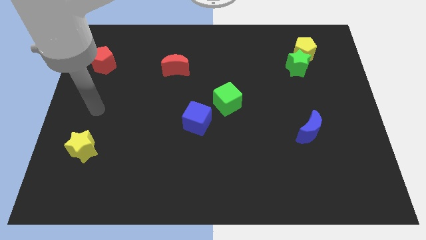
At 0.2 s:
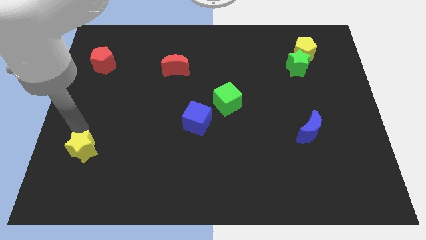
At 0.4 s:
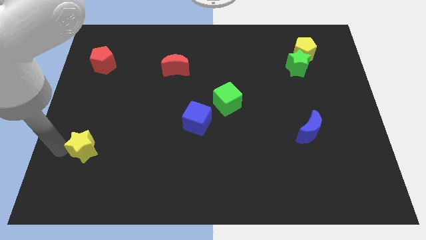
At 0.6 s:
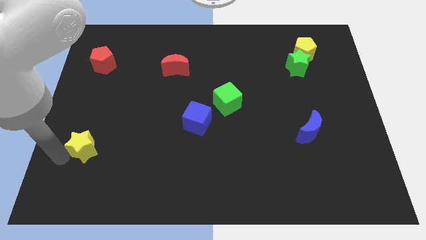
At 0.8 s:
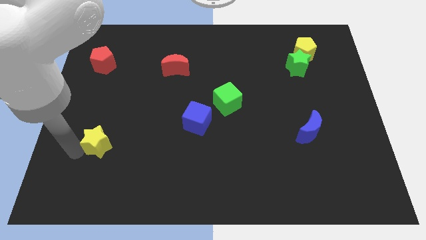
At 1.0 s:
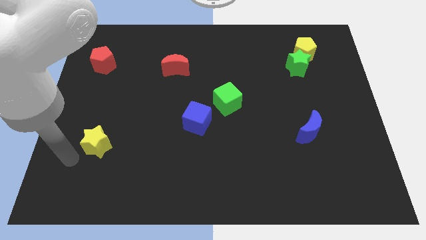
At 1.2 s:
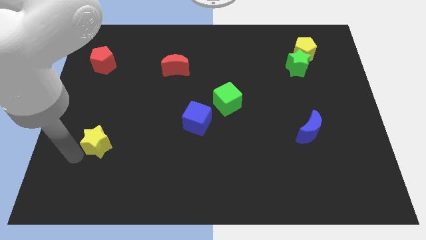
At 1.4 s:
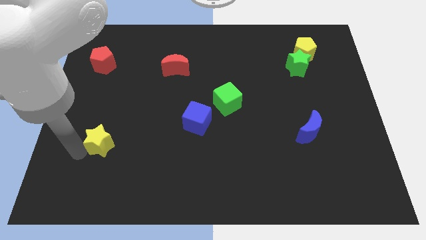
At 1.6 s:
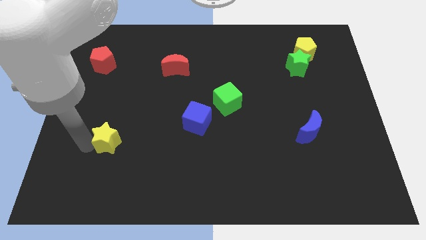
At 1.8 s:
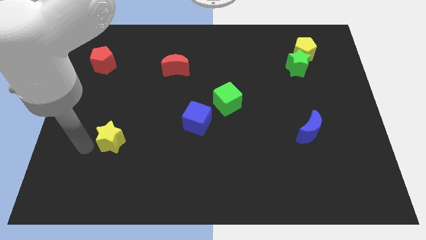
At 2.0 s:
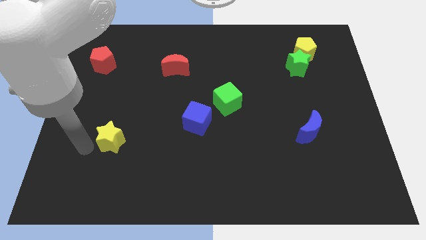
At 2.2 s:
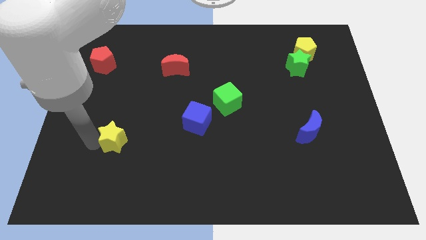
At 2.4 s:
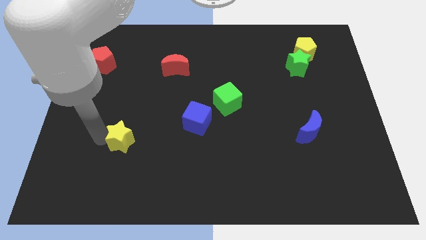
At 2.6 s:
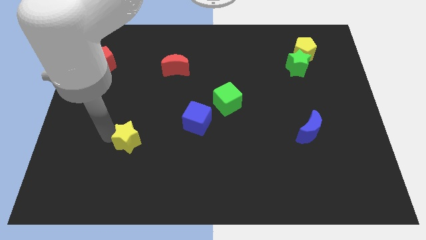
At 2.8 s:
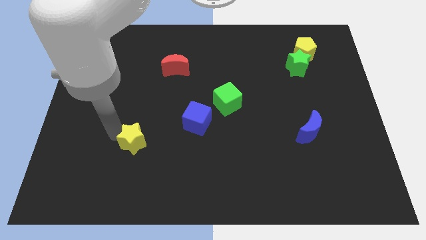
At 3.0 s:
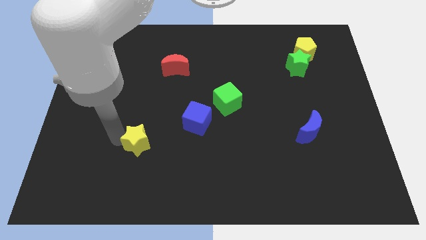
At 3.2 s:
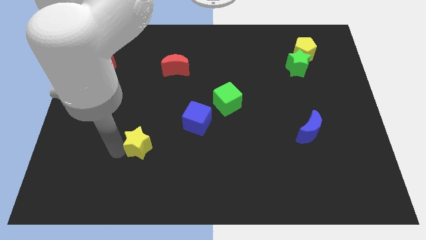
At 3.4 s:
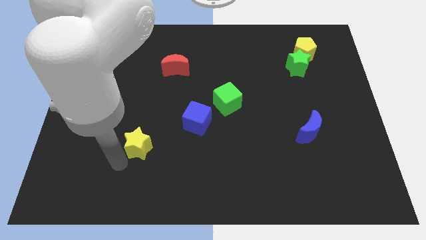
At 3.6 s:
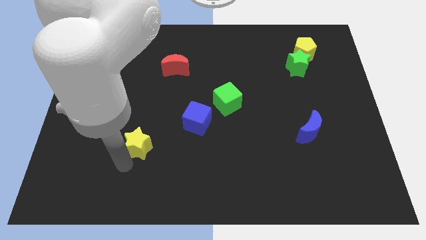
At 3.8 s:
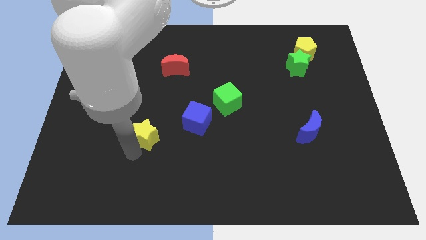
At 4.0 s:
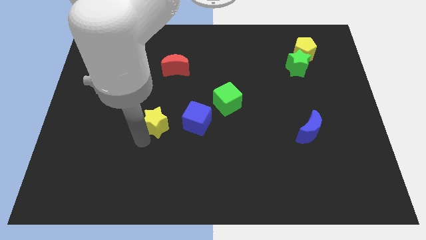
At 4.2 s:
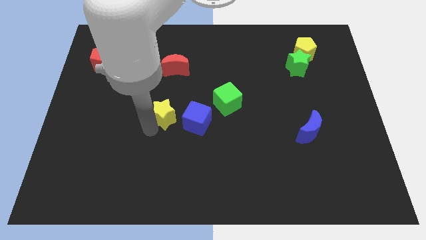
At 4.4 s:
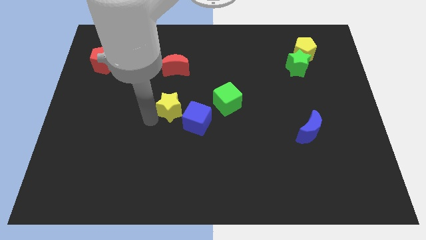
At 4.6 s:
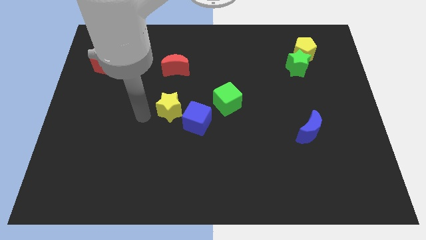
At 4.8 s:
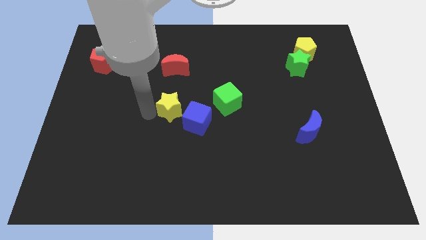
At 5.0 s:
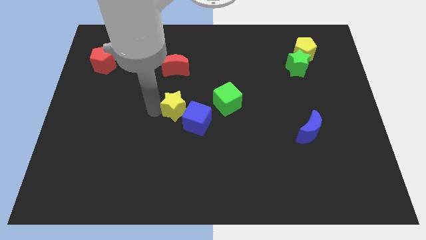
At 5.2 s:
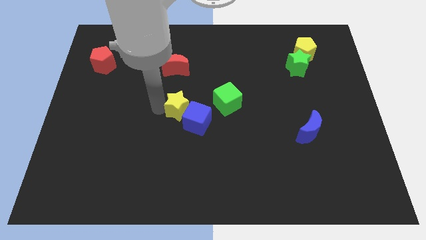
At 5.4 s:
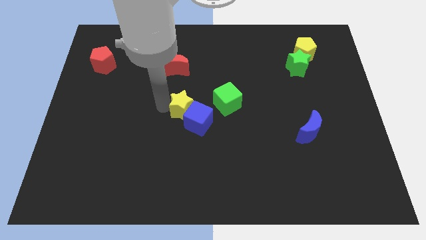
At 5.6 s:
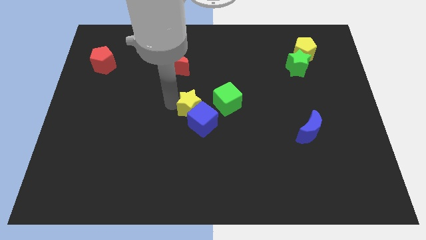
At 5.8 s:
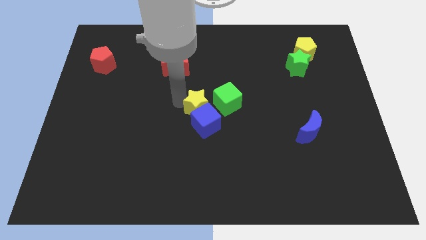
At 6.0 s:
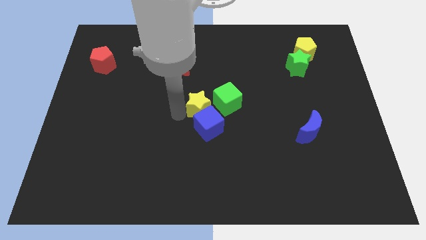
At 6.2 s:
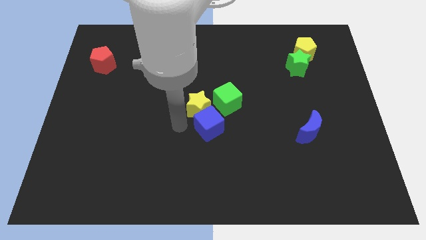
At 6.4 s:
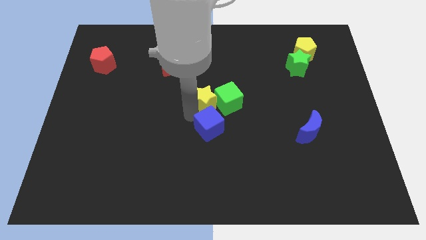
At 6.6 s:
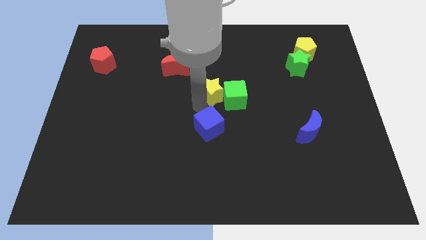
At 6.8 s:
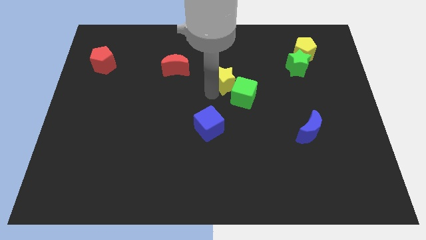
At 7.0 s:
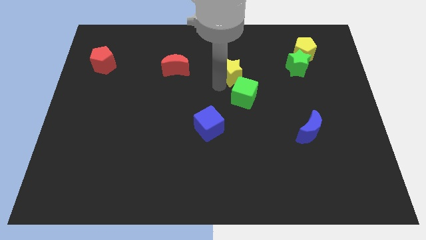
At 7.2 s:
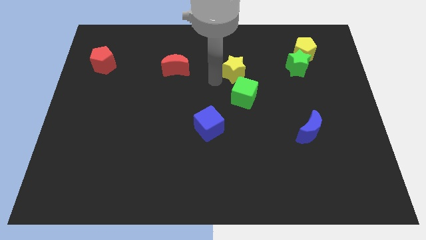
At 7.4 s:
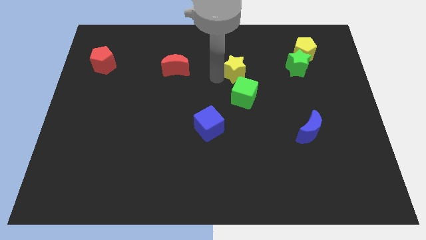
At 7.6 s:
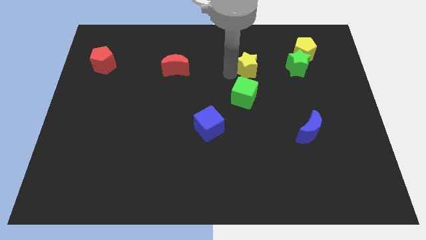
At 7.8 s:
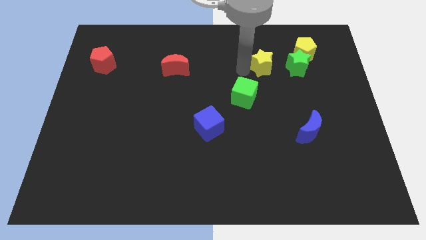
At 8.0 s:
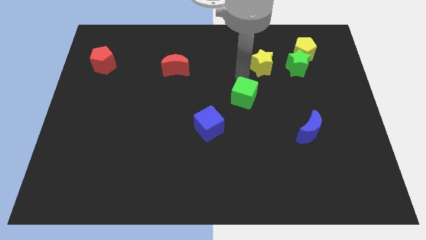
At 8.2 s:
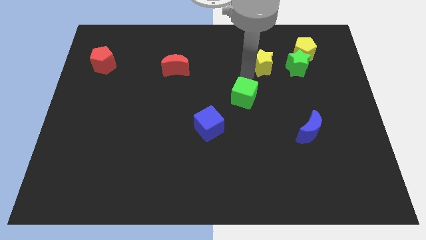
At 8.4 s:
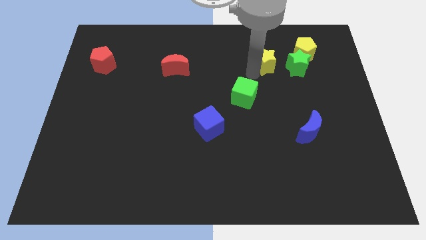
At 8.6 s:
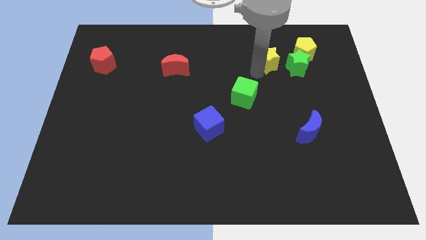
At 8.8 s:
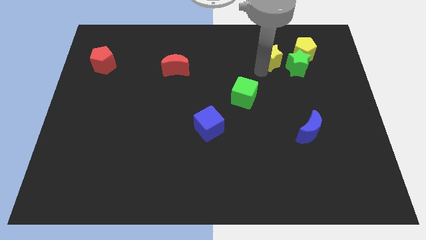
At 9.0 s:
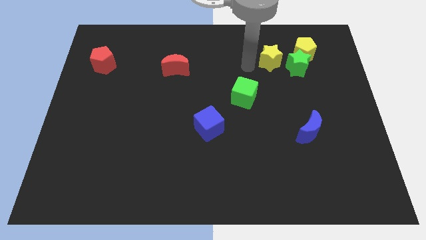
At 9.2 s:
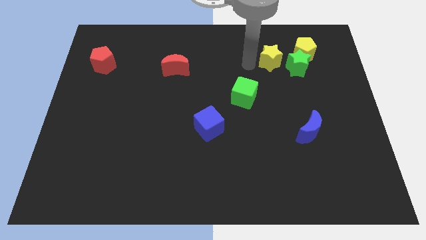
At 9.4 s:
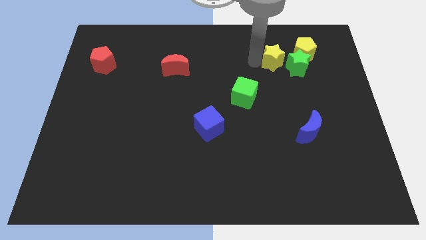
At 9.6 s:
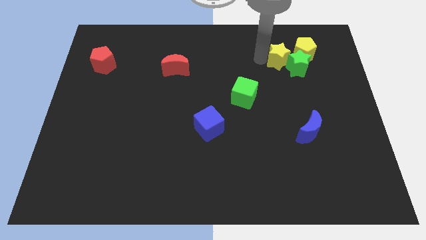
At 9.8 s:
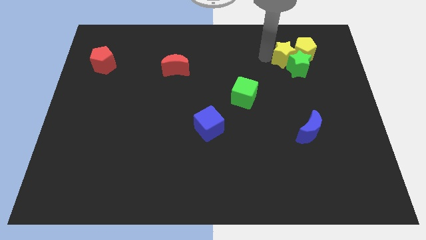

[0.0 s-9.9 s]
move the yellow star towards the yellow pentagon

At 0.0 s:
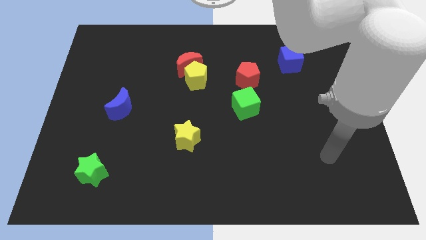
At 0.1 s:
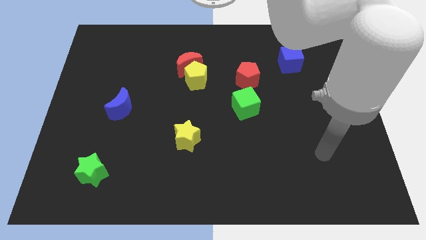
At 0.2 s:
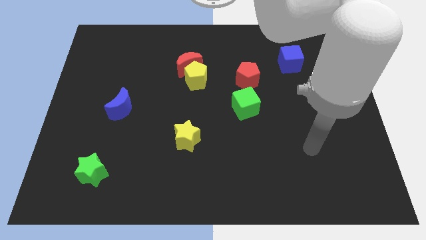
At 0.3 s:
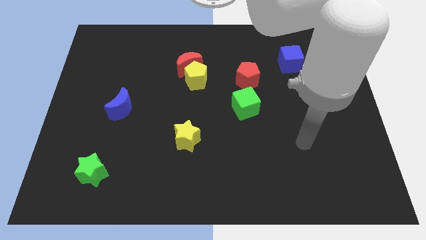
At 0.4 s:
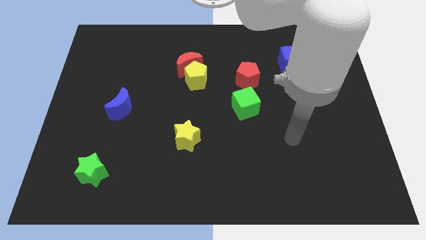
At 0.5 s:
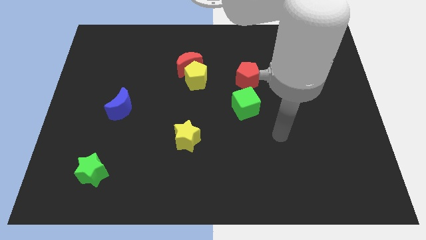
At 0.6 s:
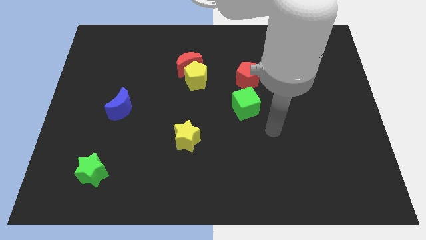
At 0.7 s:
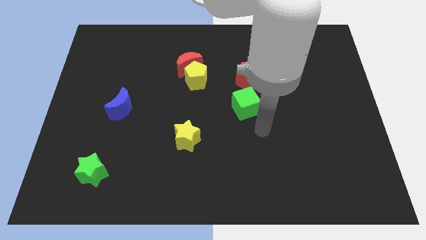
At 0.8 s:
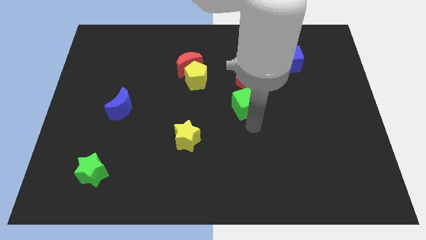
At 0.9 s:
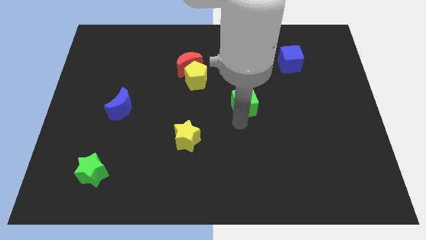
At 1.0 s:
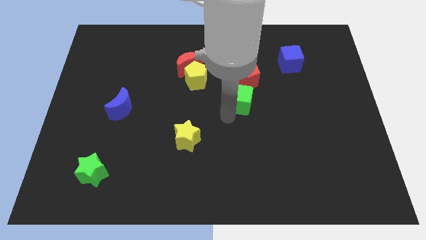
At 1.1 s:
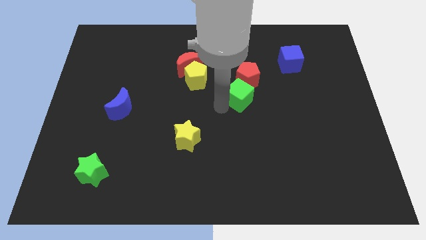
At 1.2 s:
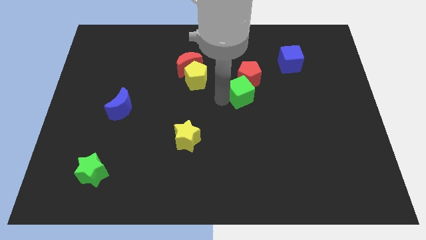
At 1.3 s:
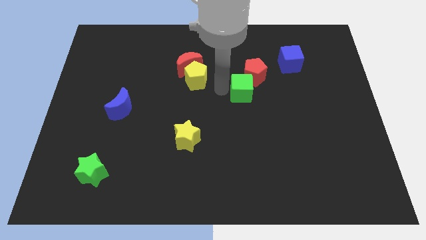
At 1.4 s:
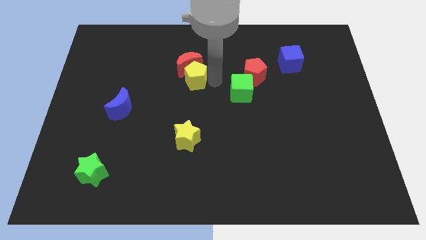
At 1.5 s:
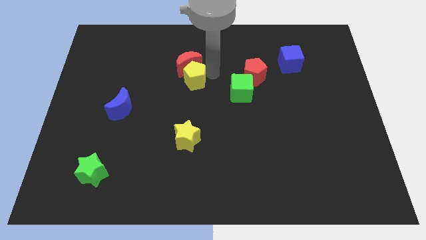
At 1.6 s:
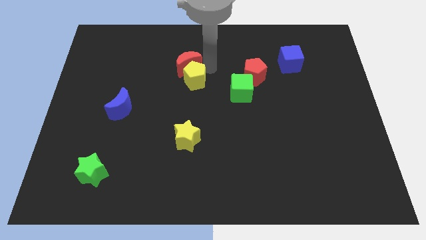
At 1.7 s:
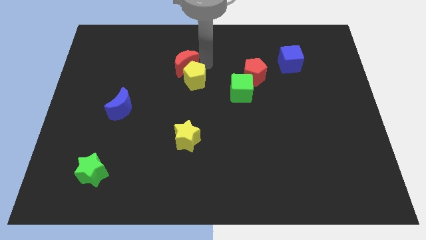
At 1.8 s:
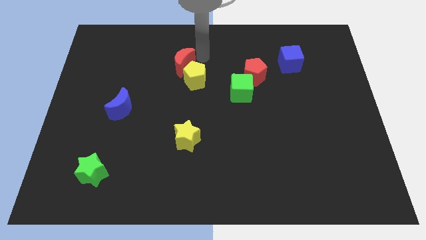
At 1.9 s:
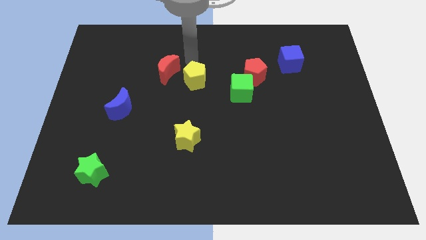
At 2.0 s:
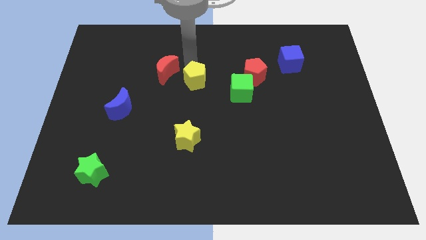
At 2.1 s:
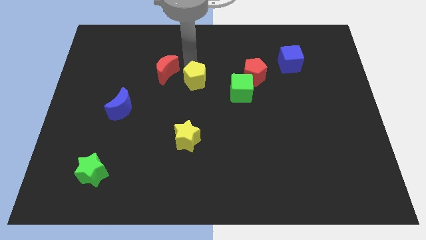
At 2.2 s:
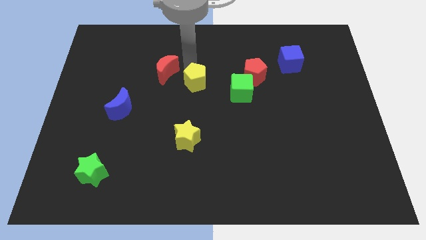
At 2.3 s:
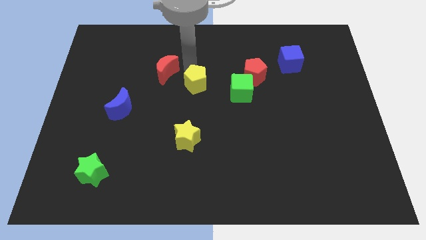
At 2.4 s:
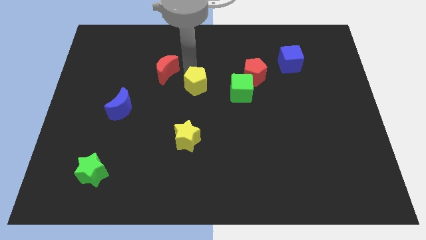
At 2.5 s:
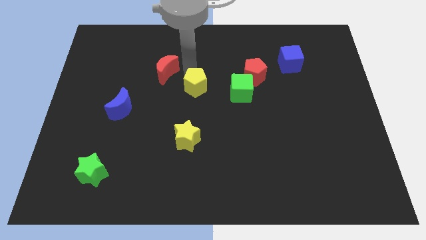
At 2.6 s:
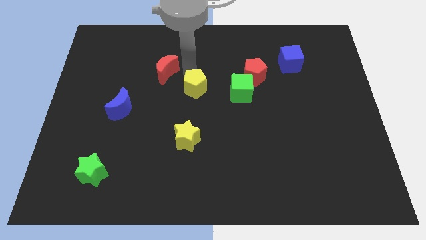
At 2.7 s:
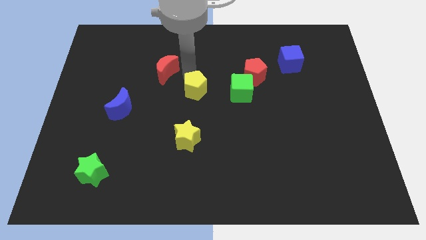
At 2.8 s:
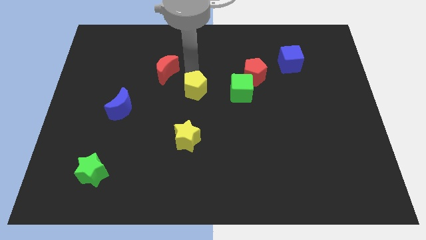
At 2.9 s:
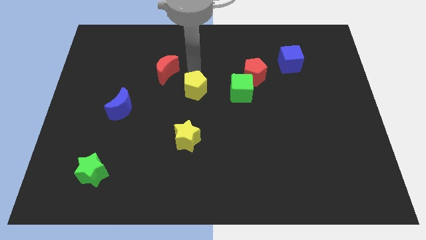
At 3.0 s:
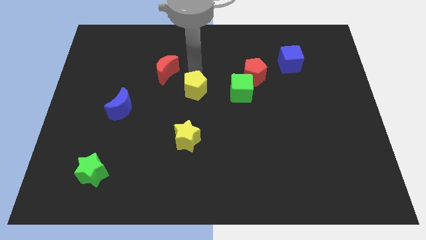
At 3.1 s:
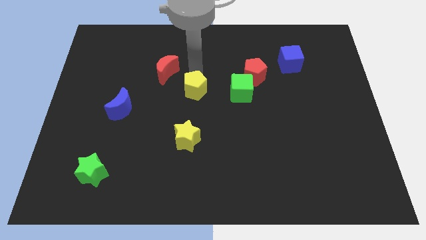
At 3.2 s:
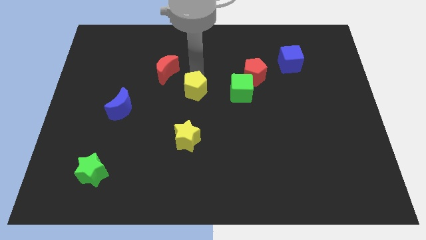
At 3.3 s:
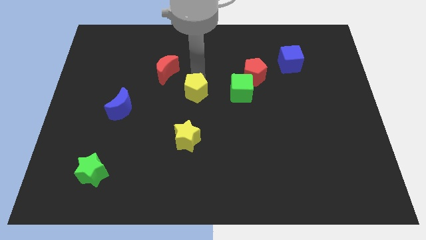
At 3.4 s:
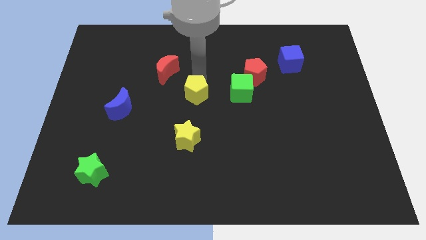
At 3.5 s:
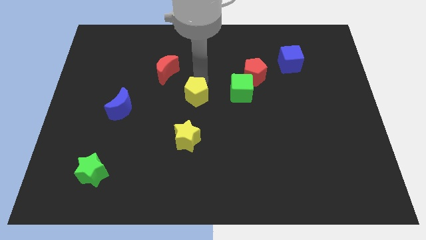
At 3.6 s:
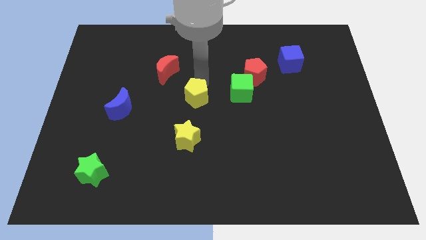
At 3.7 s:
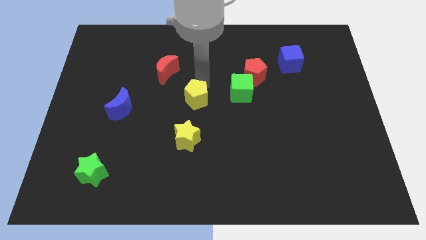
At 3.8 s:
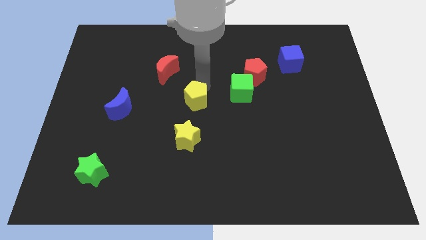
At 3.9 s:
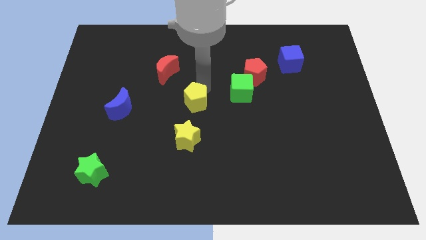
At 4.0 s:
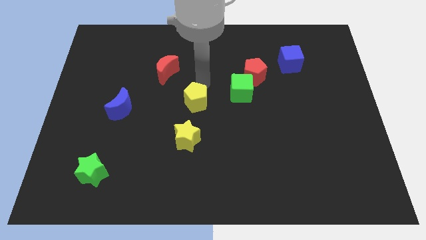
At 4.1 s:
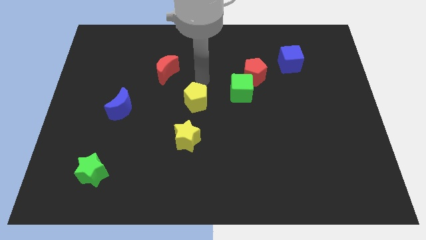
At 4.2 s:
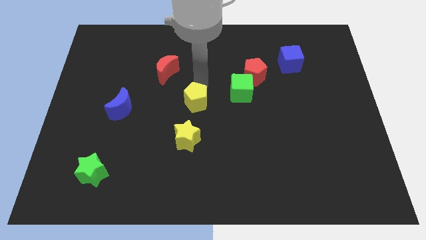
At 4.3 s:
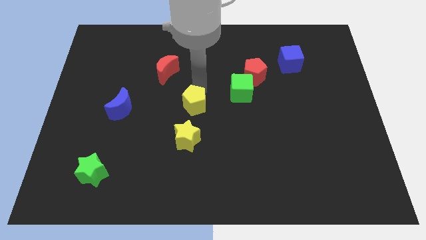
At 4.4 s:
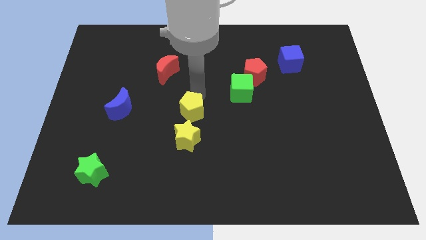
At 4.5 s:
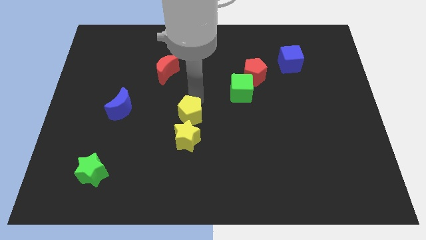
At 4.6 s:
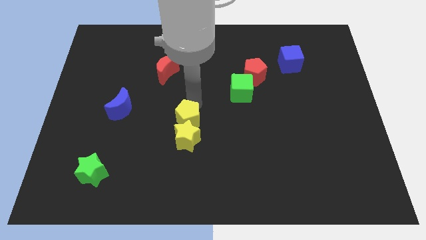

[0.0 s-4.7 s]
move the yellow pentagon next to the yellow star
